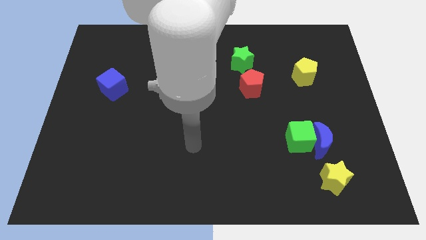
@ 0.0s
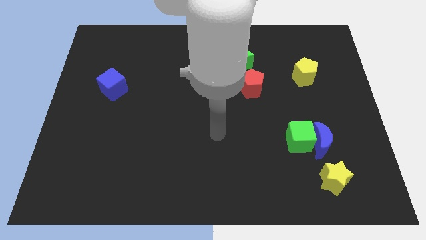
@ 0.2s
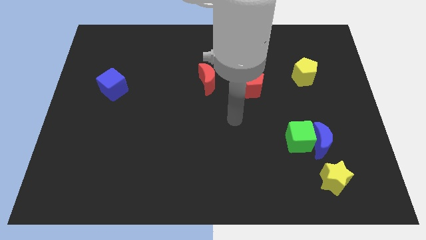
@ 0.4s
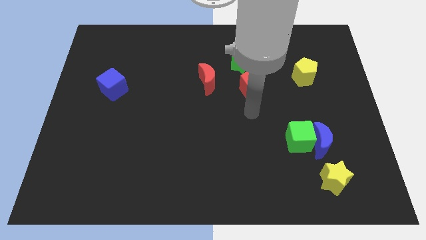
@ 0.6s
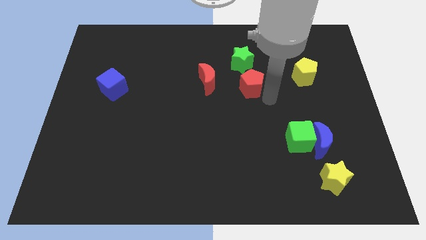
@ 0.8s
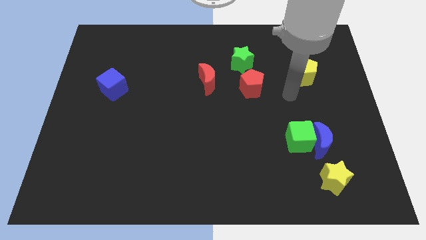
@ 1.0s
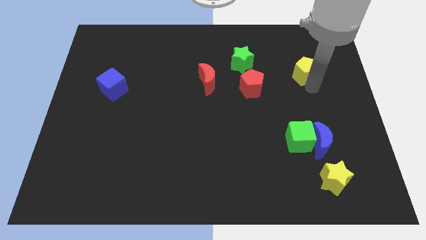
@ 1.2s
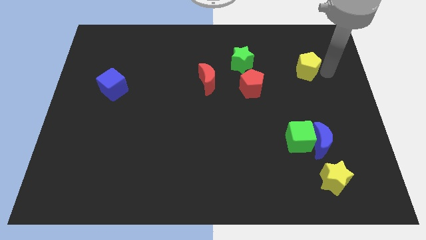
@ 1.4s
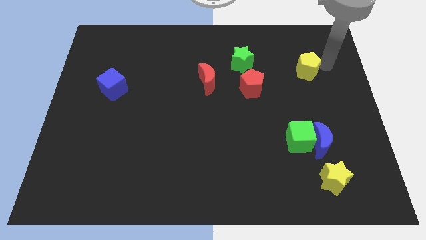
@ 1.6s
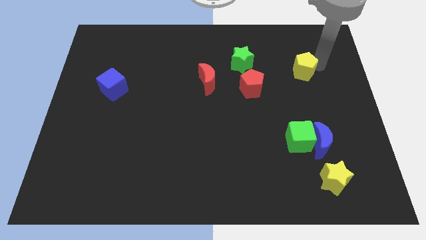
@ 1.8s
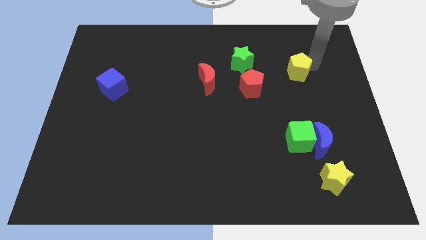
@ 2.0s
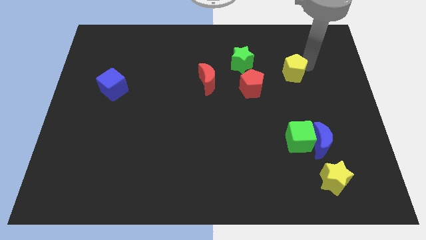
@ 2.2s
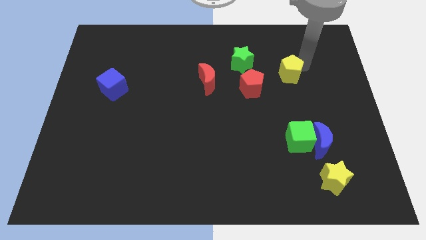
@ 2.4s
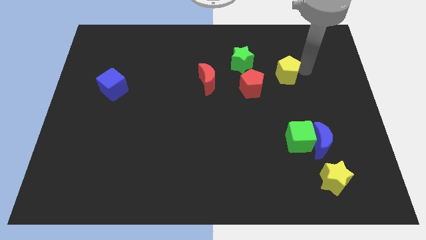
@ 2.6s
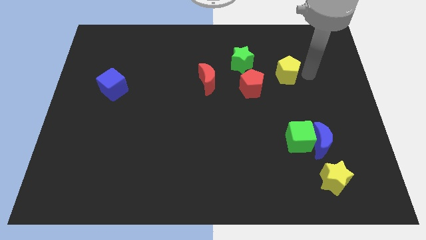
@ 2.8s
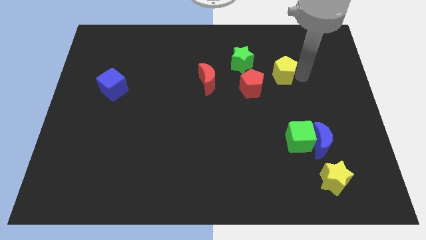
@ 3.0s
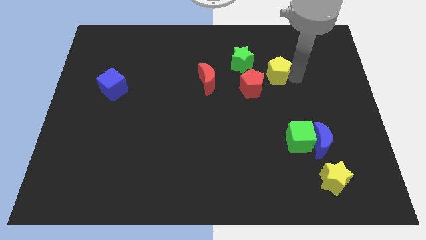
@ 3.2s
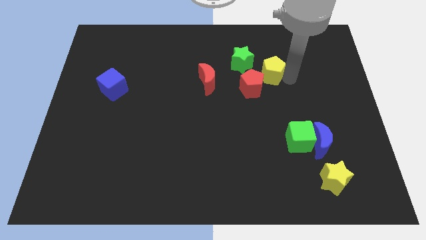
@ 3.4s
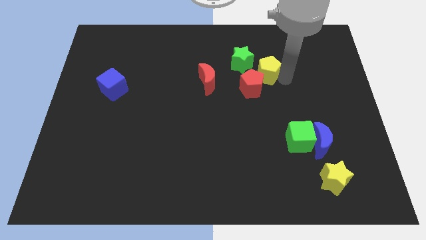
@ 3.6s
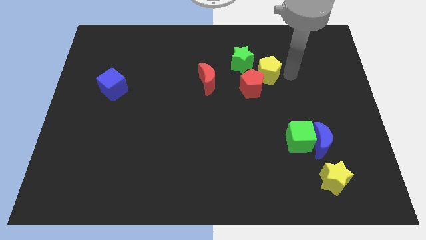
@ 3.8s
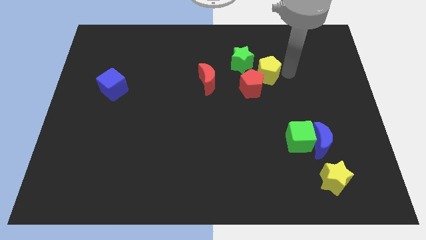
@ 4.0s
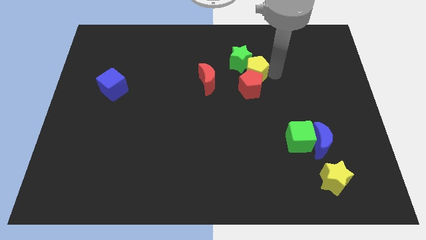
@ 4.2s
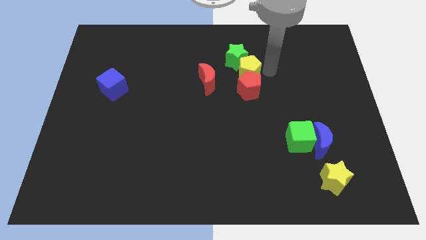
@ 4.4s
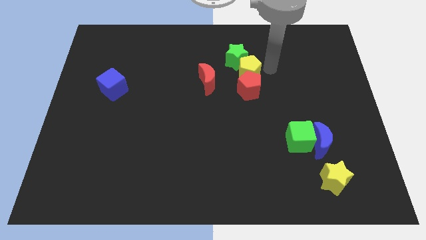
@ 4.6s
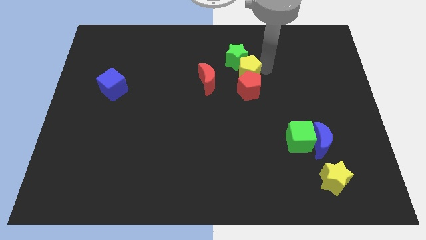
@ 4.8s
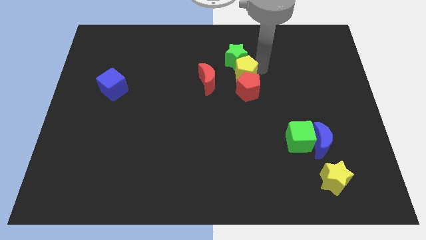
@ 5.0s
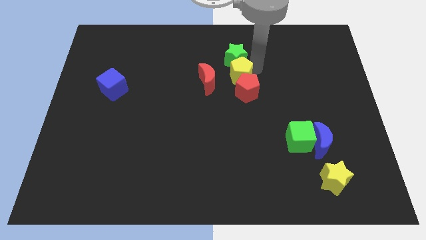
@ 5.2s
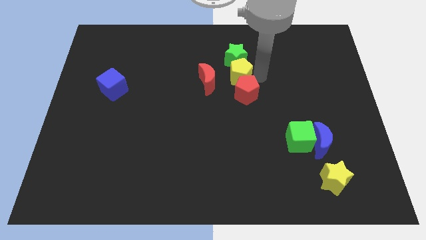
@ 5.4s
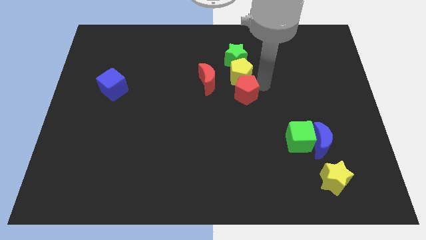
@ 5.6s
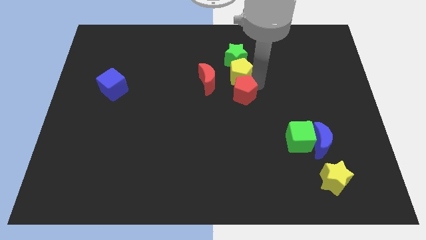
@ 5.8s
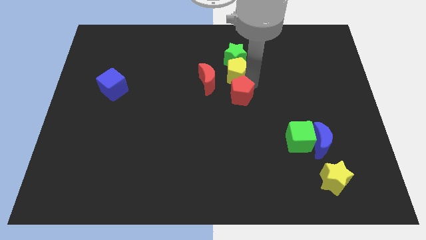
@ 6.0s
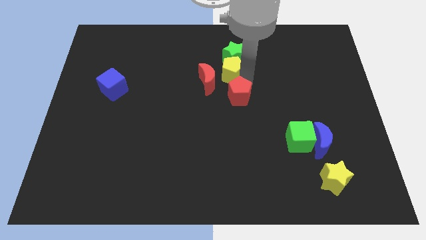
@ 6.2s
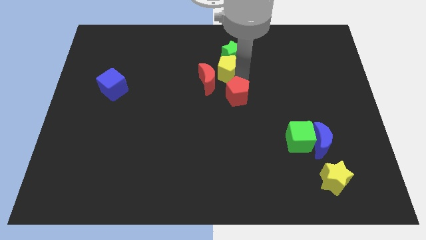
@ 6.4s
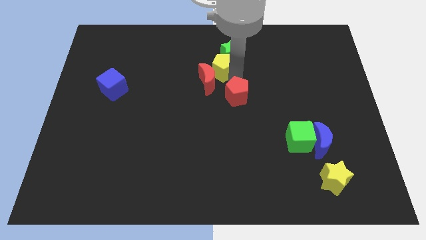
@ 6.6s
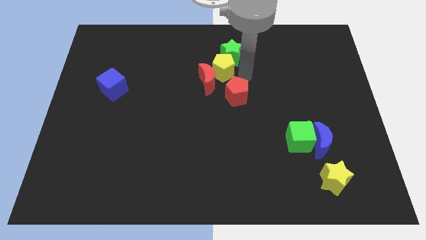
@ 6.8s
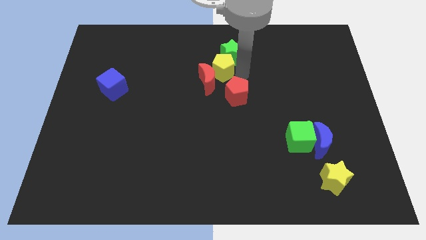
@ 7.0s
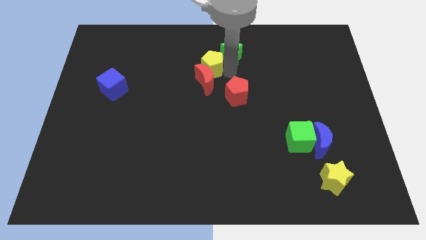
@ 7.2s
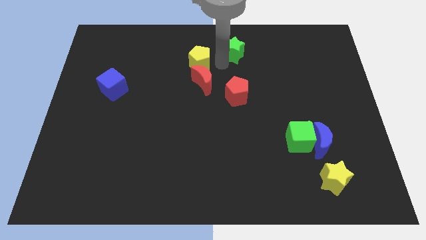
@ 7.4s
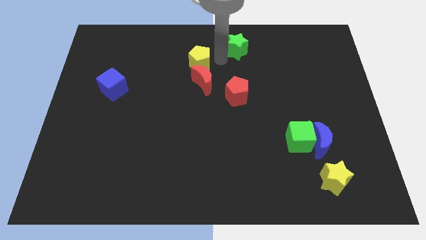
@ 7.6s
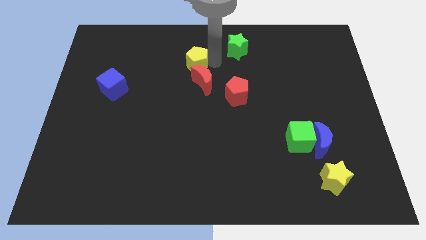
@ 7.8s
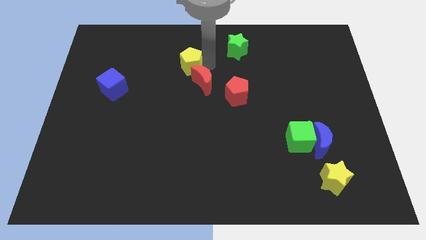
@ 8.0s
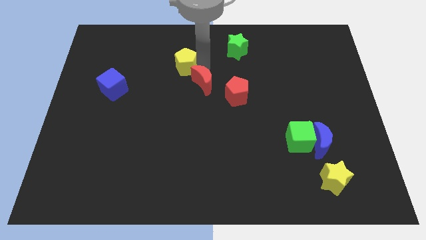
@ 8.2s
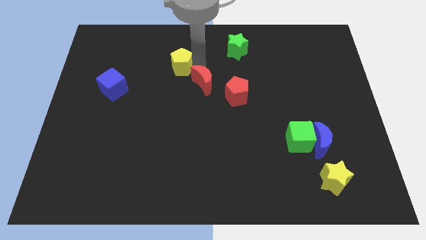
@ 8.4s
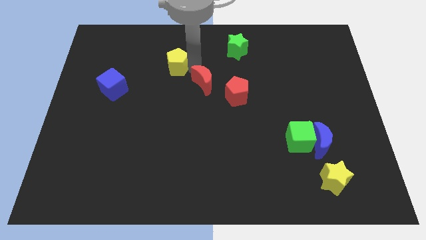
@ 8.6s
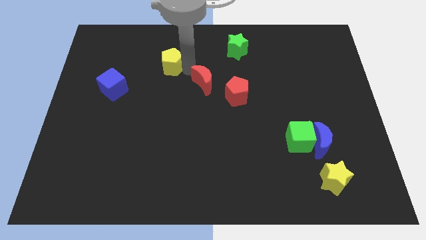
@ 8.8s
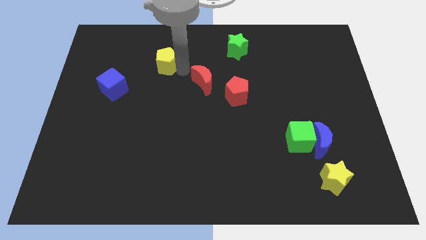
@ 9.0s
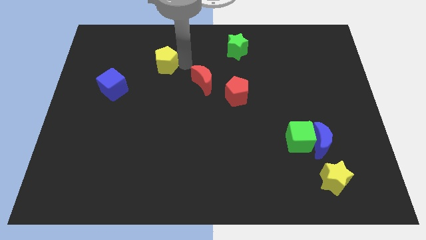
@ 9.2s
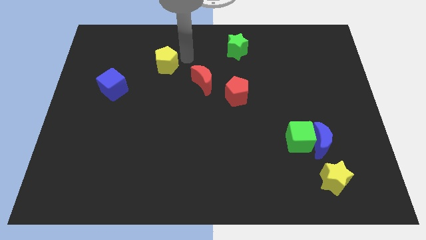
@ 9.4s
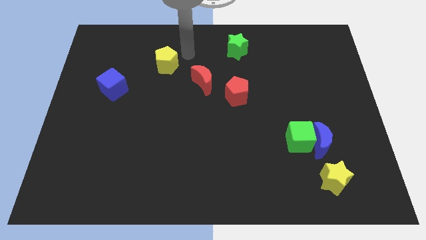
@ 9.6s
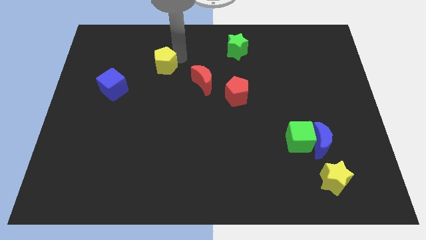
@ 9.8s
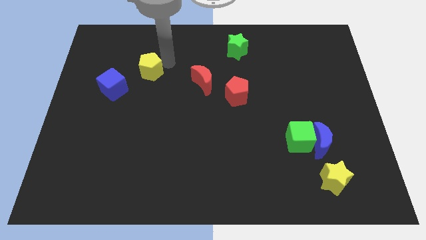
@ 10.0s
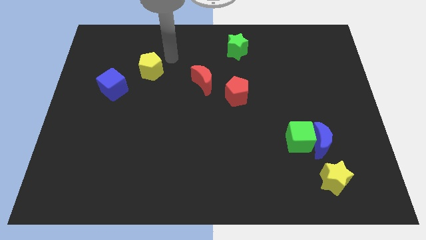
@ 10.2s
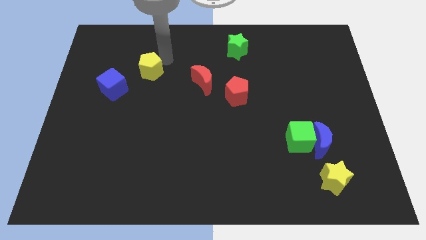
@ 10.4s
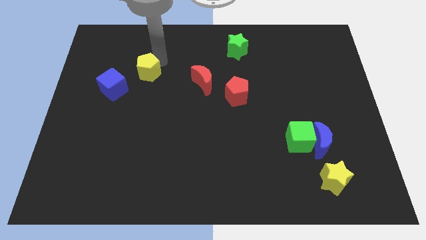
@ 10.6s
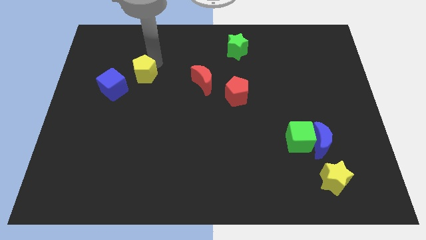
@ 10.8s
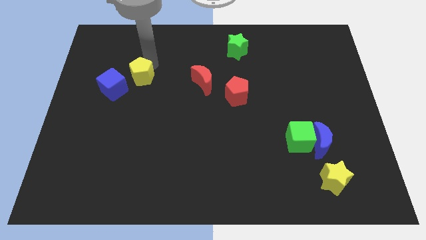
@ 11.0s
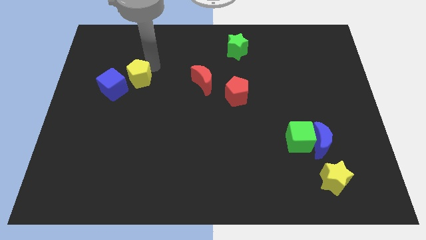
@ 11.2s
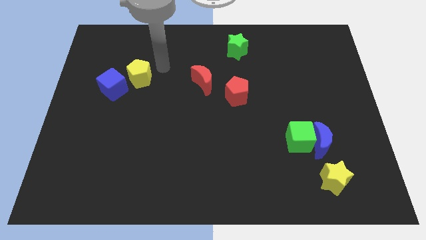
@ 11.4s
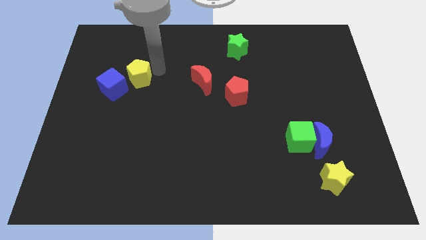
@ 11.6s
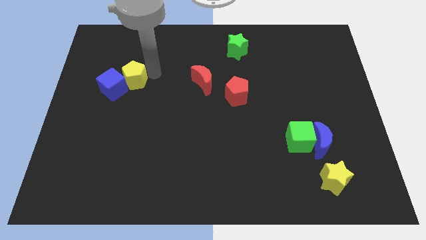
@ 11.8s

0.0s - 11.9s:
move the yellow pentagon towards the blue cube

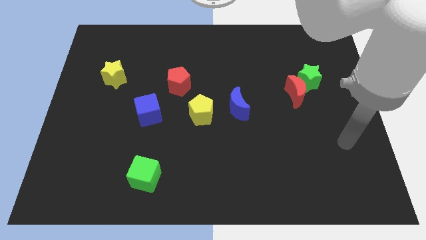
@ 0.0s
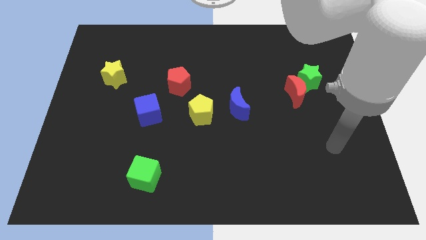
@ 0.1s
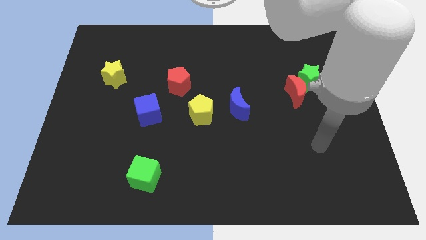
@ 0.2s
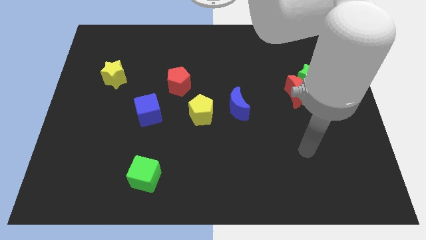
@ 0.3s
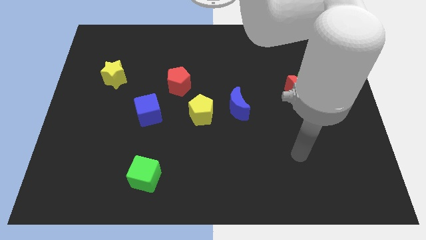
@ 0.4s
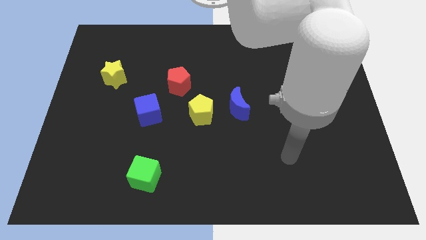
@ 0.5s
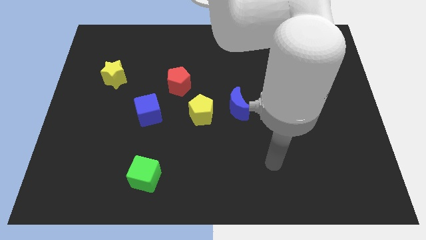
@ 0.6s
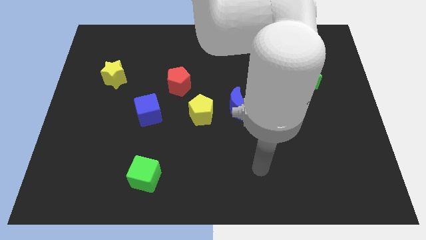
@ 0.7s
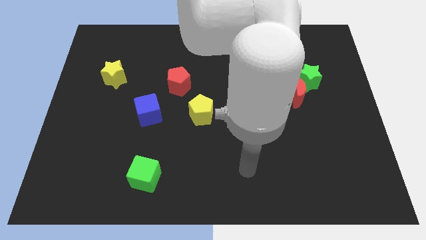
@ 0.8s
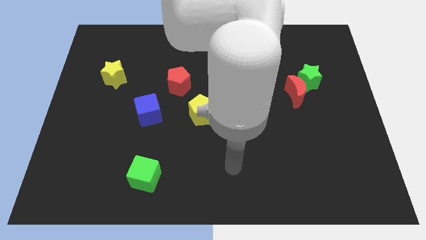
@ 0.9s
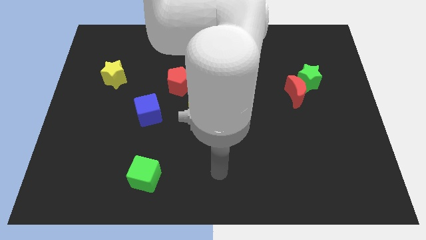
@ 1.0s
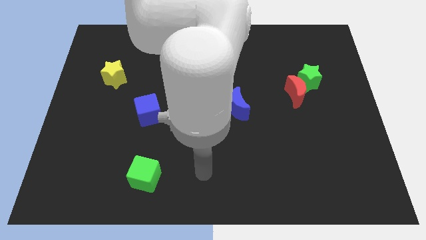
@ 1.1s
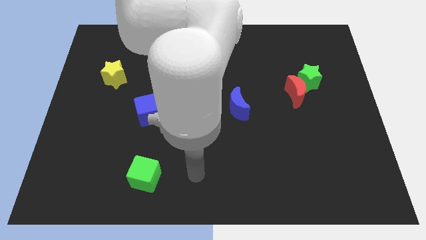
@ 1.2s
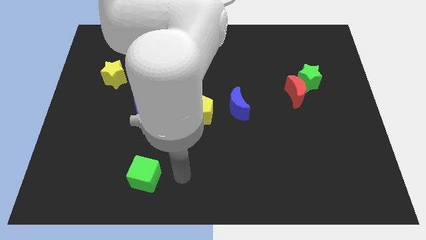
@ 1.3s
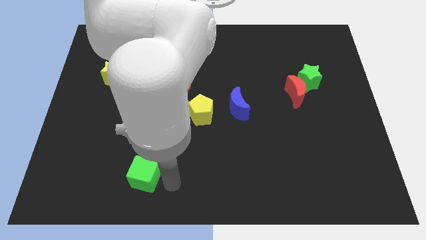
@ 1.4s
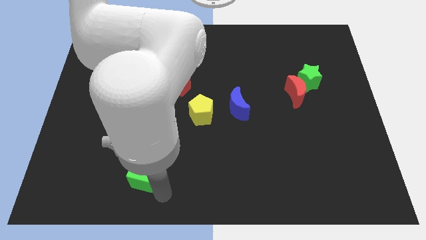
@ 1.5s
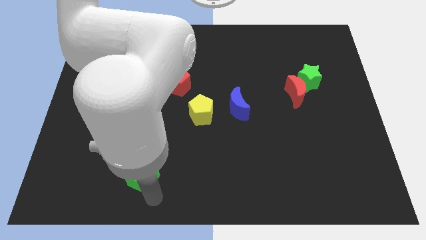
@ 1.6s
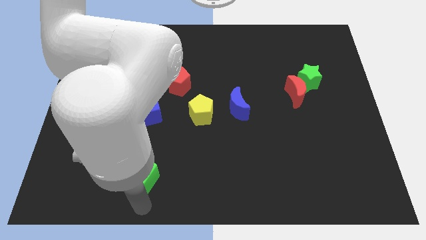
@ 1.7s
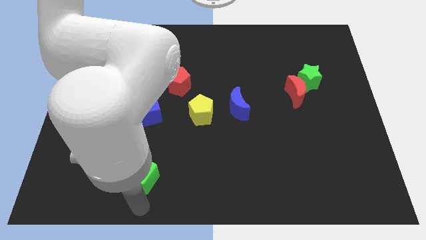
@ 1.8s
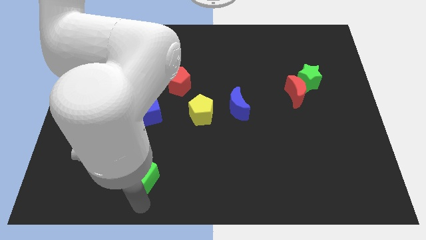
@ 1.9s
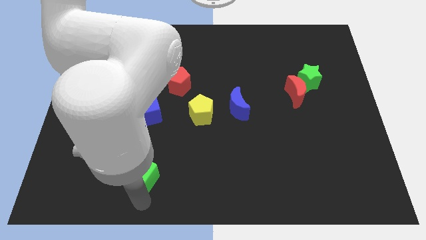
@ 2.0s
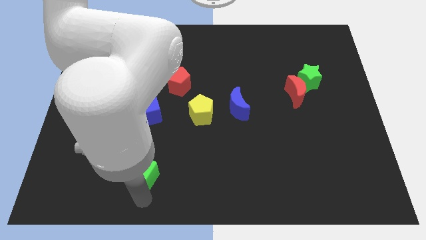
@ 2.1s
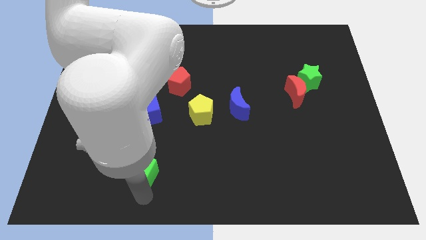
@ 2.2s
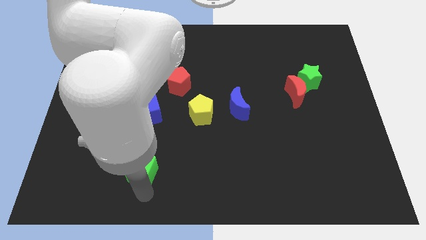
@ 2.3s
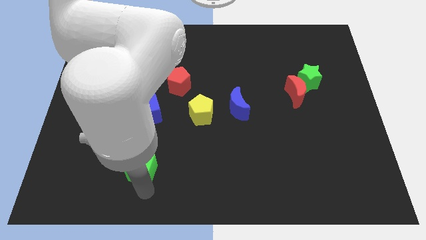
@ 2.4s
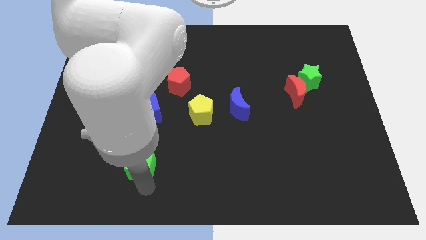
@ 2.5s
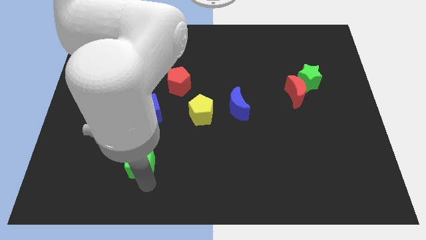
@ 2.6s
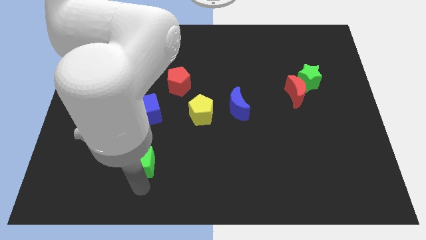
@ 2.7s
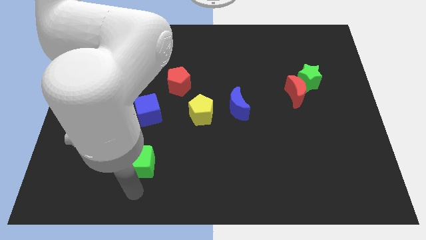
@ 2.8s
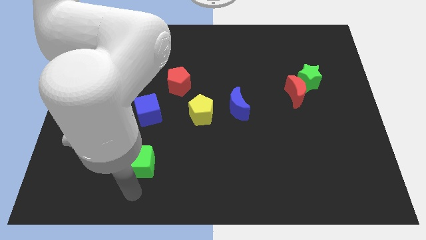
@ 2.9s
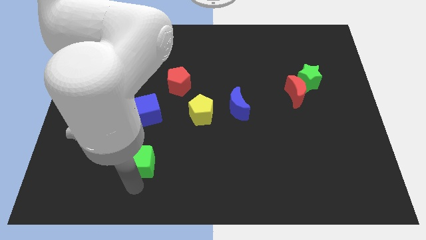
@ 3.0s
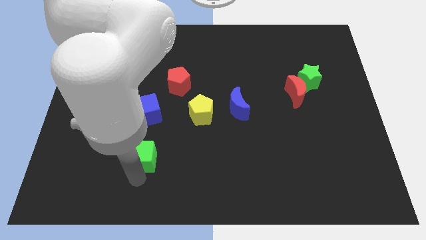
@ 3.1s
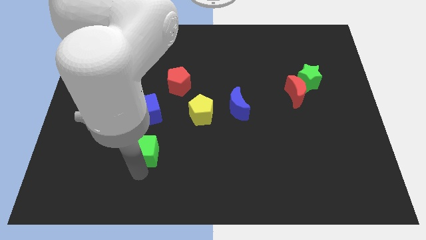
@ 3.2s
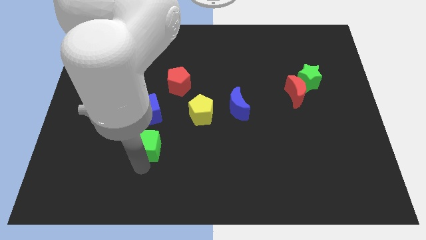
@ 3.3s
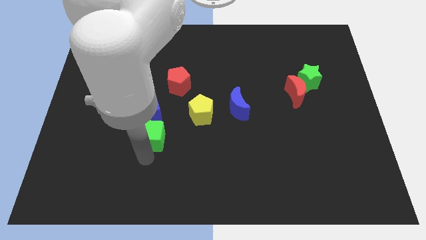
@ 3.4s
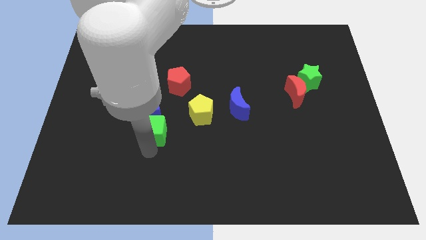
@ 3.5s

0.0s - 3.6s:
move the green cube close to the blue cube
